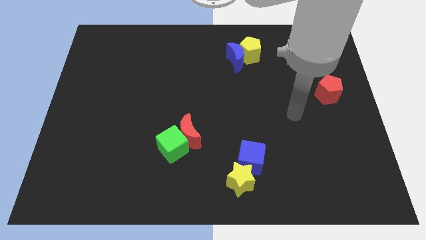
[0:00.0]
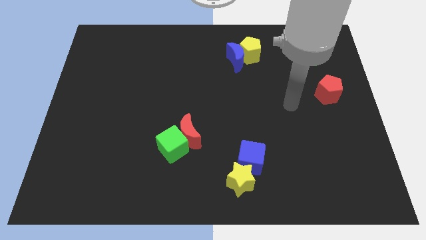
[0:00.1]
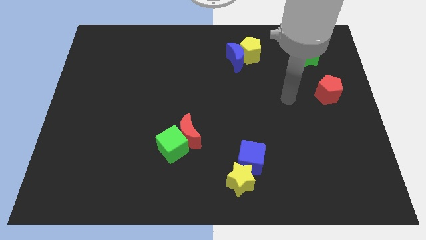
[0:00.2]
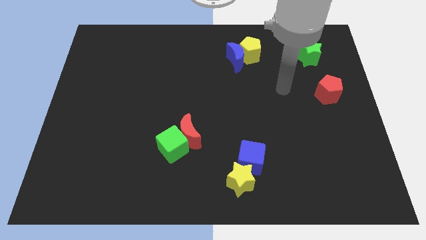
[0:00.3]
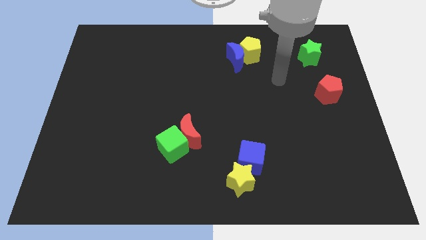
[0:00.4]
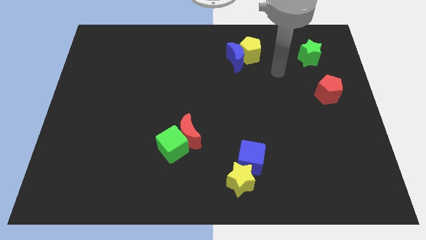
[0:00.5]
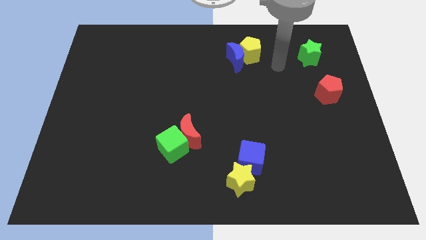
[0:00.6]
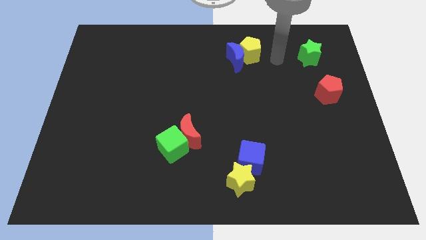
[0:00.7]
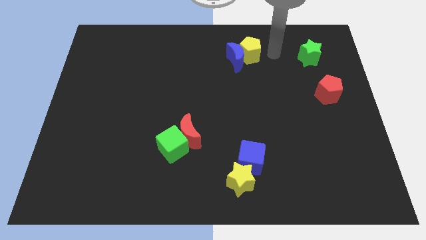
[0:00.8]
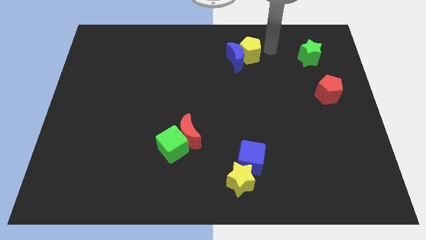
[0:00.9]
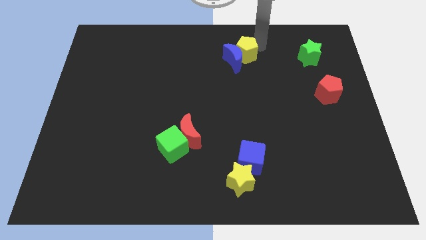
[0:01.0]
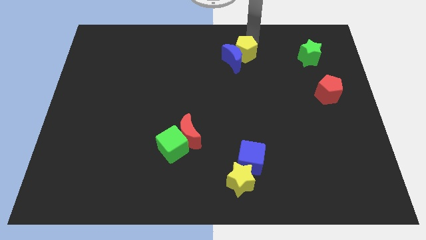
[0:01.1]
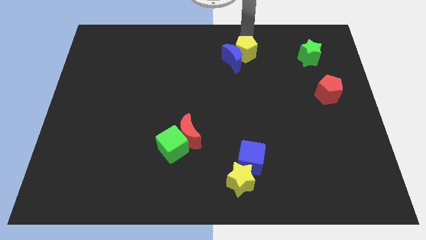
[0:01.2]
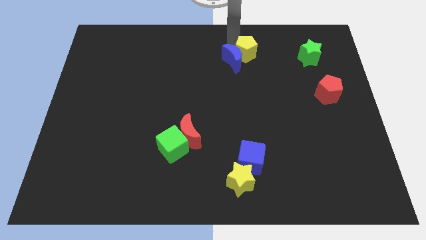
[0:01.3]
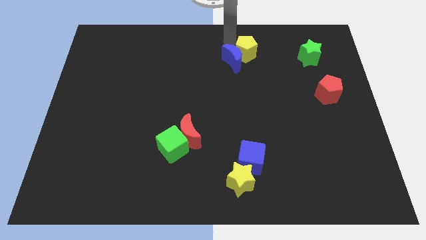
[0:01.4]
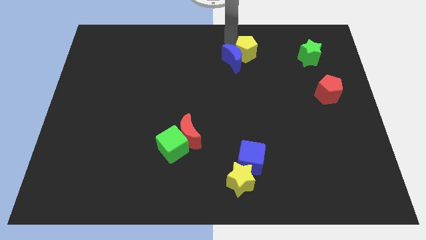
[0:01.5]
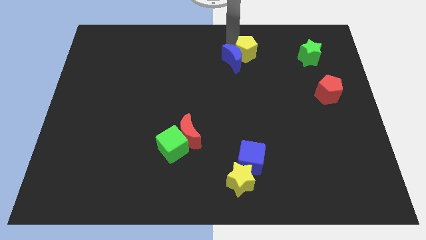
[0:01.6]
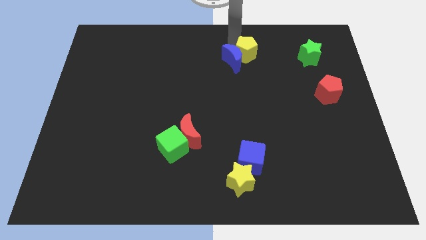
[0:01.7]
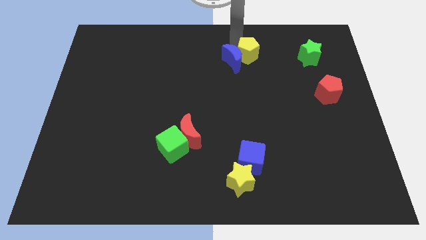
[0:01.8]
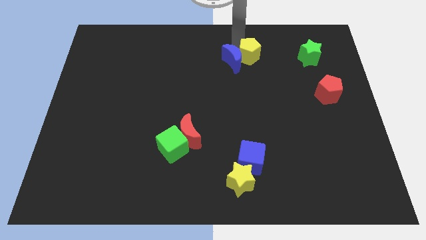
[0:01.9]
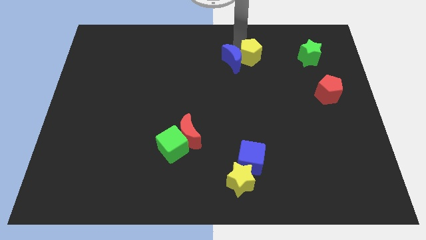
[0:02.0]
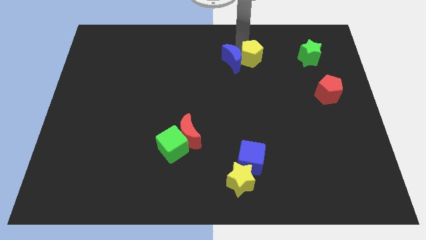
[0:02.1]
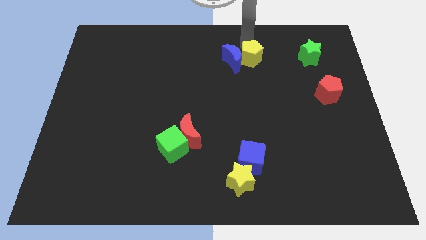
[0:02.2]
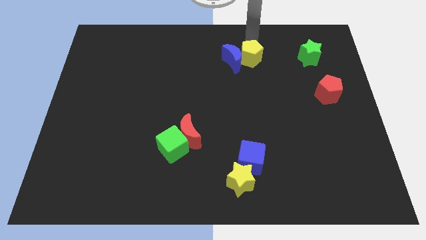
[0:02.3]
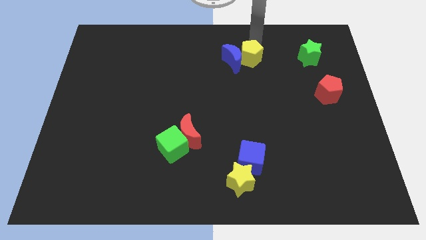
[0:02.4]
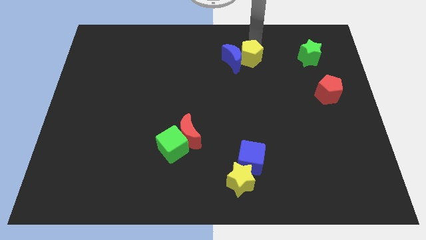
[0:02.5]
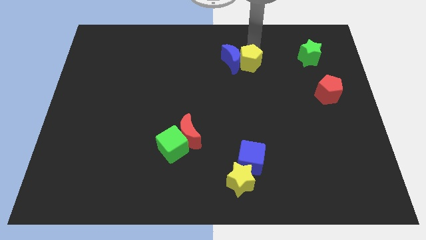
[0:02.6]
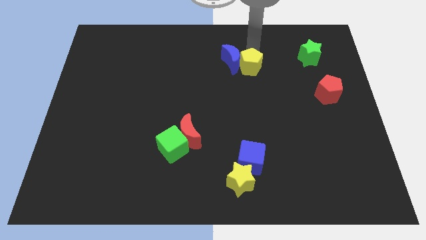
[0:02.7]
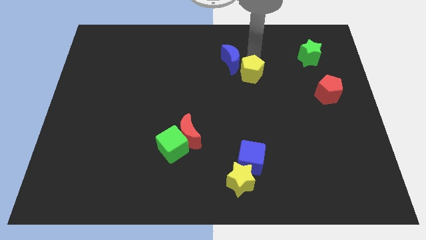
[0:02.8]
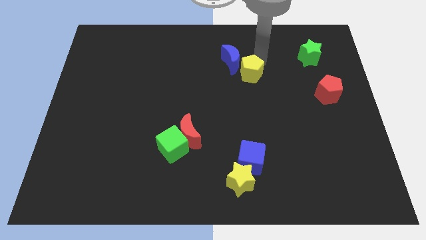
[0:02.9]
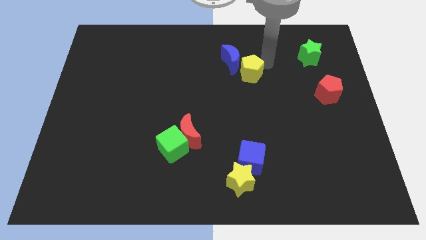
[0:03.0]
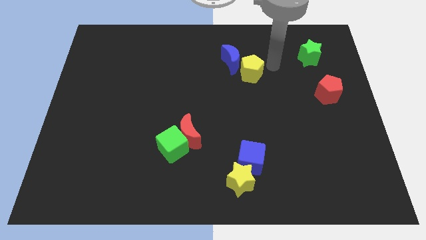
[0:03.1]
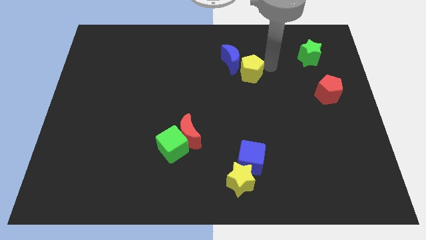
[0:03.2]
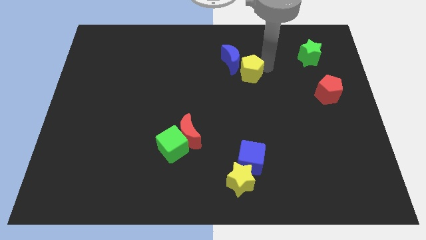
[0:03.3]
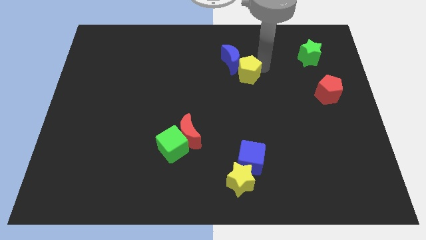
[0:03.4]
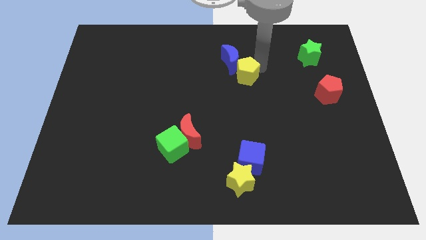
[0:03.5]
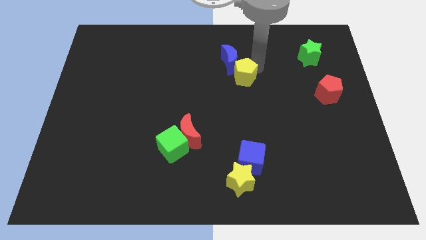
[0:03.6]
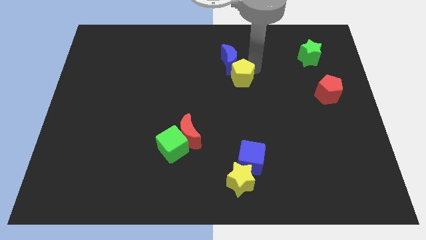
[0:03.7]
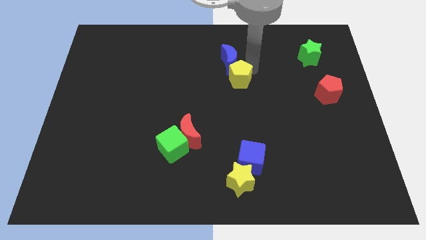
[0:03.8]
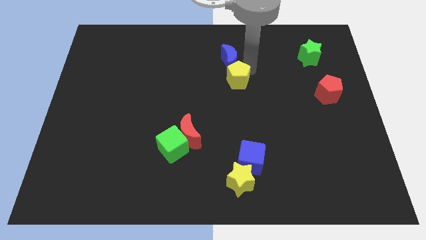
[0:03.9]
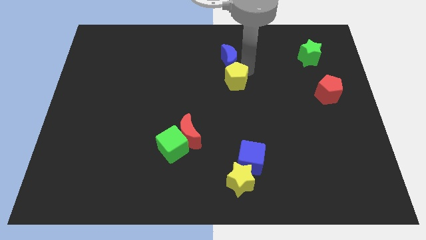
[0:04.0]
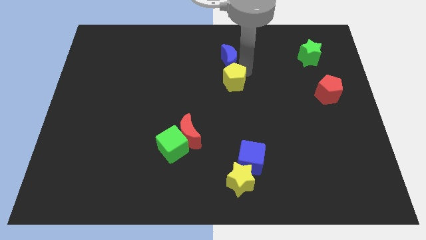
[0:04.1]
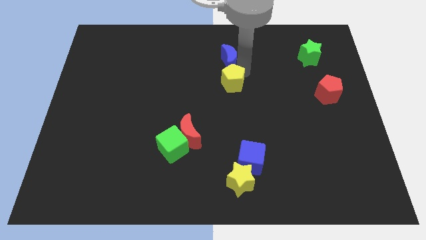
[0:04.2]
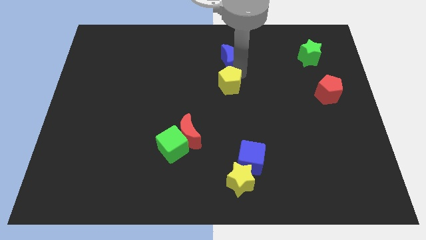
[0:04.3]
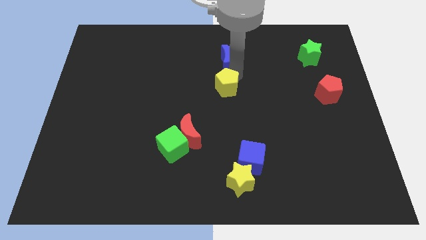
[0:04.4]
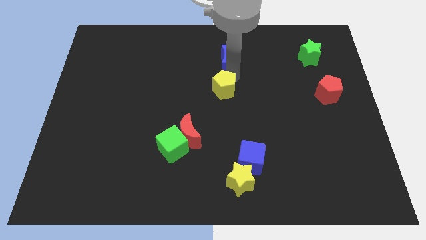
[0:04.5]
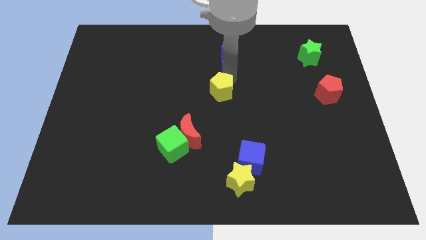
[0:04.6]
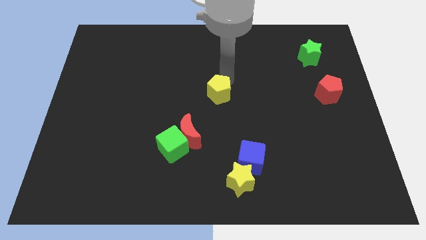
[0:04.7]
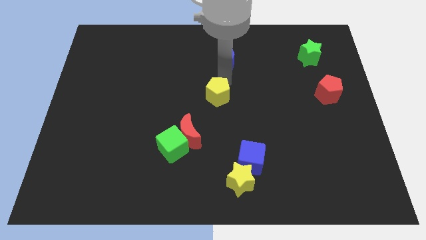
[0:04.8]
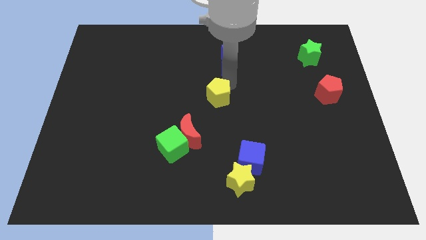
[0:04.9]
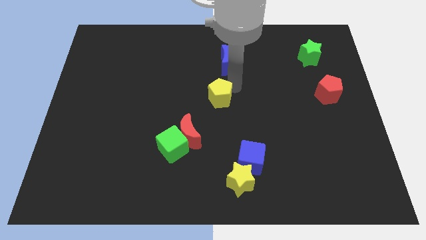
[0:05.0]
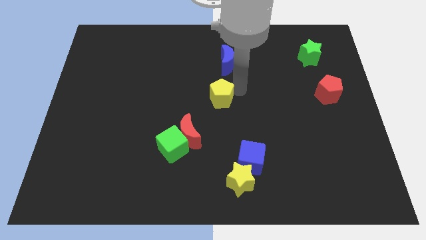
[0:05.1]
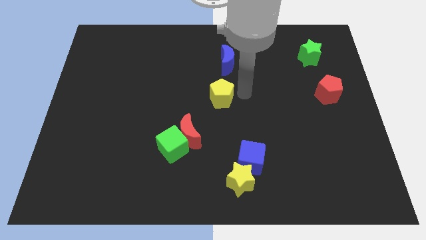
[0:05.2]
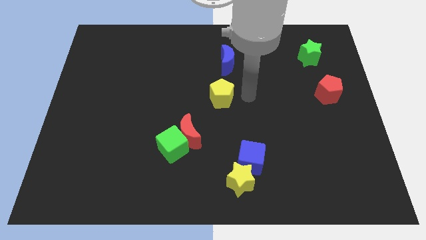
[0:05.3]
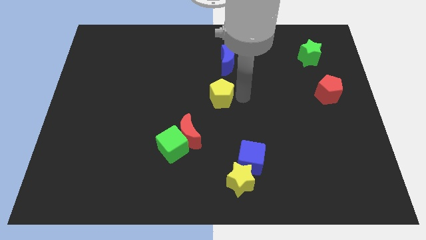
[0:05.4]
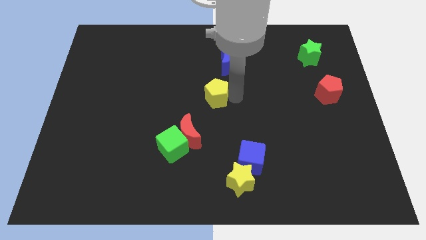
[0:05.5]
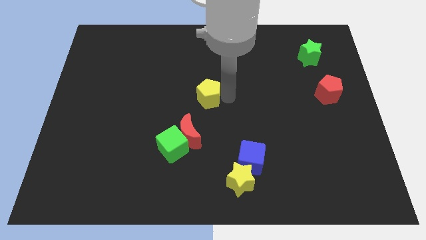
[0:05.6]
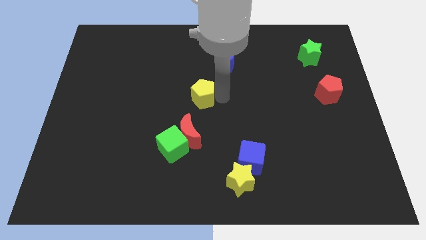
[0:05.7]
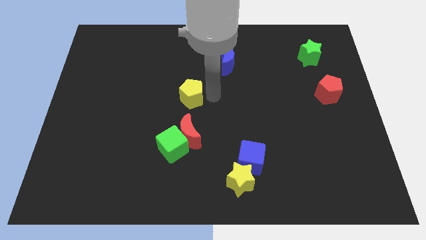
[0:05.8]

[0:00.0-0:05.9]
move the yellow pentagon down and to the left

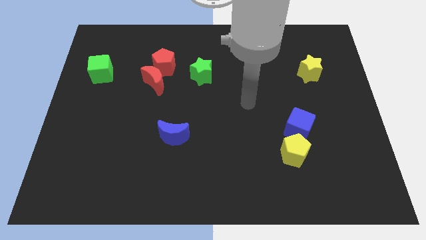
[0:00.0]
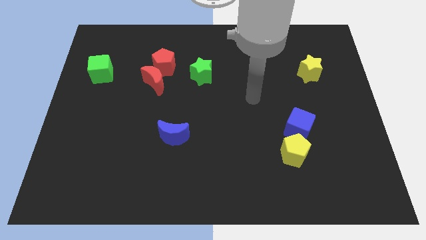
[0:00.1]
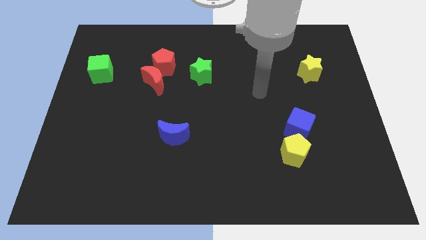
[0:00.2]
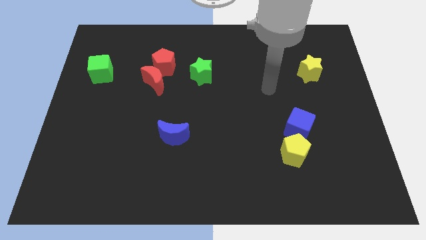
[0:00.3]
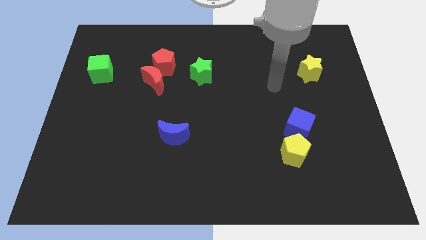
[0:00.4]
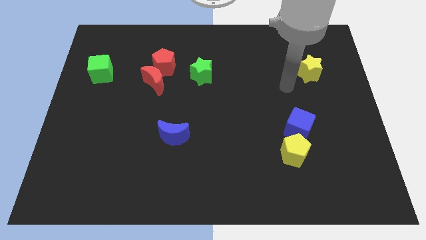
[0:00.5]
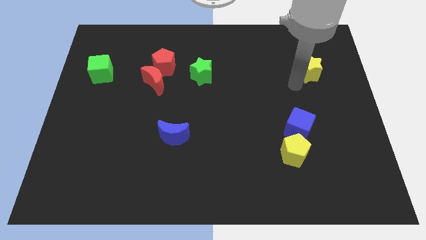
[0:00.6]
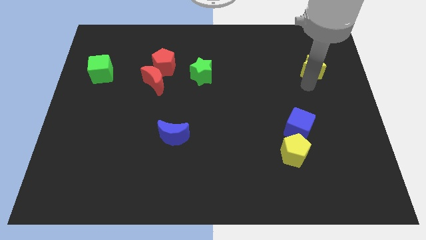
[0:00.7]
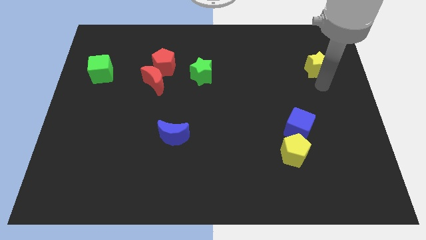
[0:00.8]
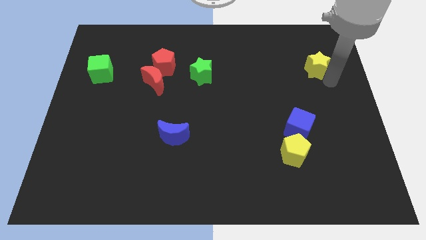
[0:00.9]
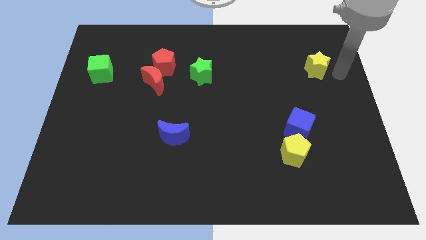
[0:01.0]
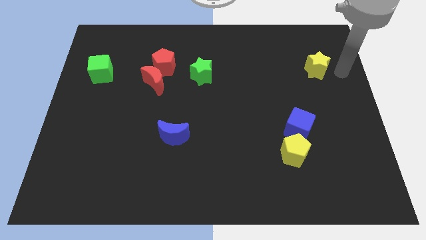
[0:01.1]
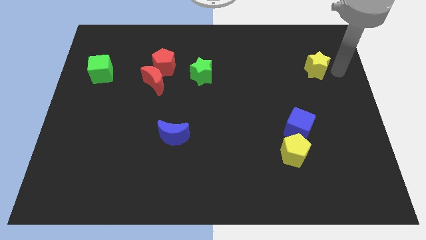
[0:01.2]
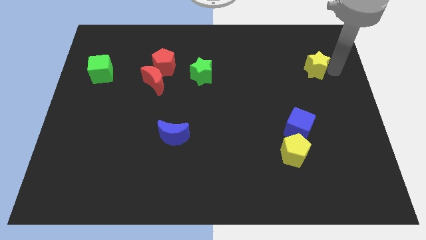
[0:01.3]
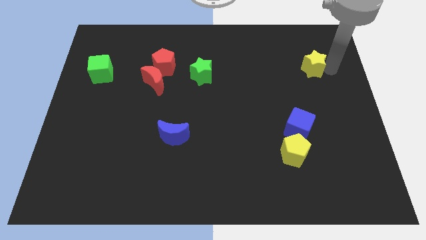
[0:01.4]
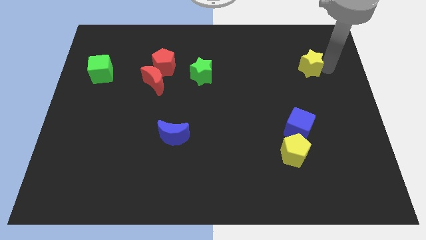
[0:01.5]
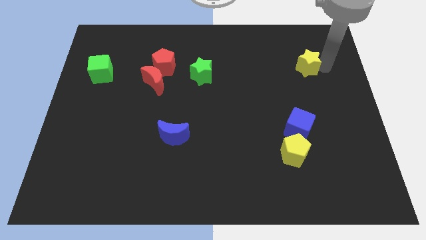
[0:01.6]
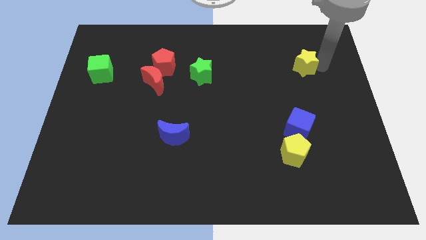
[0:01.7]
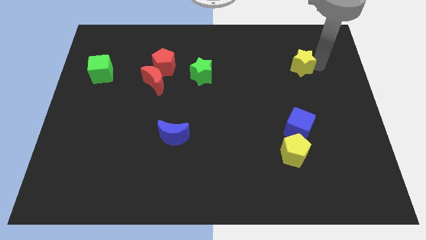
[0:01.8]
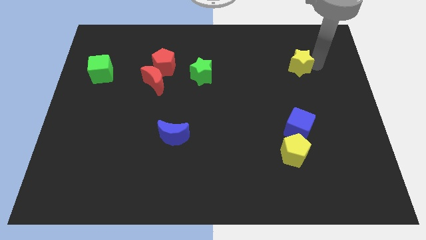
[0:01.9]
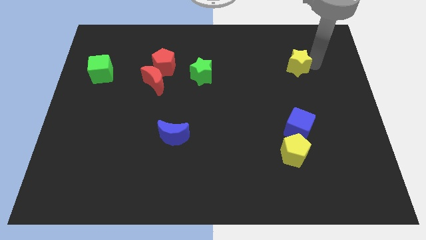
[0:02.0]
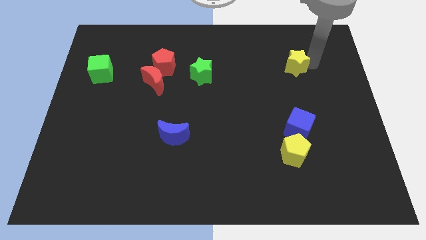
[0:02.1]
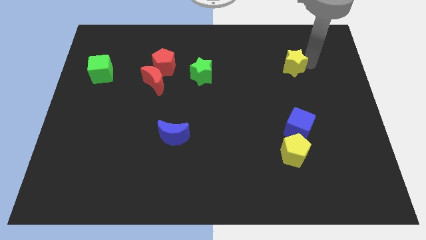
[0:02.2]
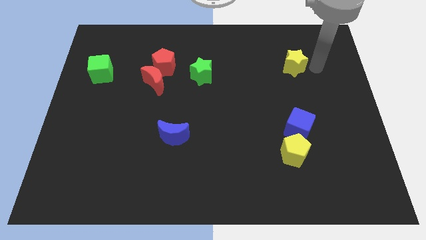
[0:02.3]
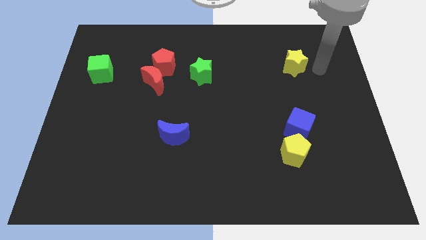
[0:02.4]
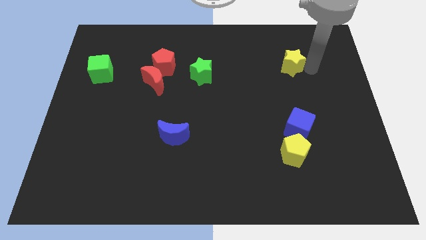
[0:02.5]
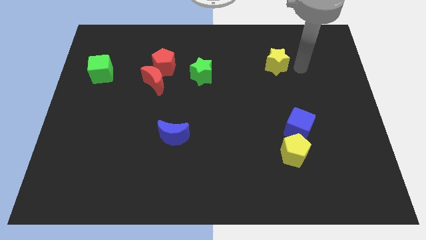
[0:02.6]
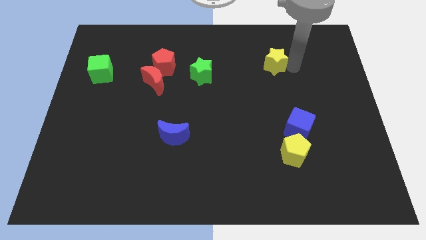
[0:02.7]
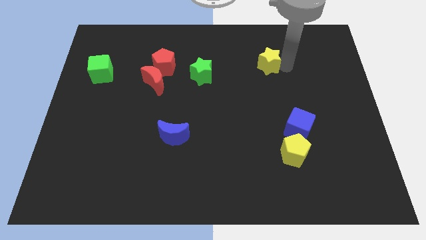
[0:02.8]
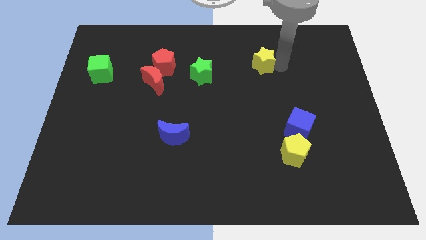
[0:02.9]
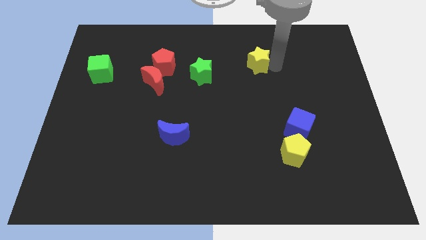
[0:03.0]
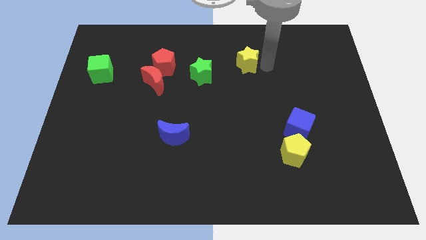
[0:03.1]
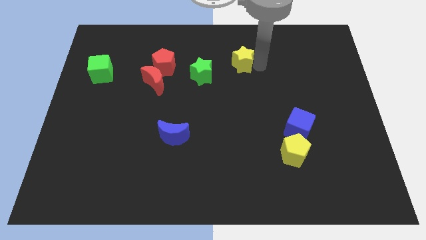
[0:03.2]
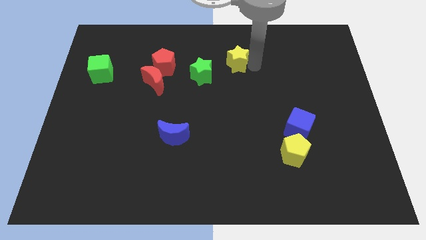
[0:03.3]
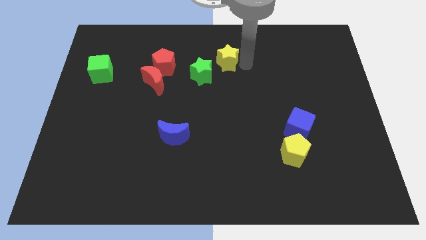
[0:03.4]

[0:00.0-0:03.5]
move the yellow star to the left
